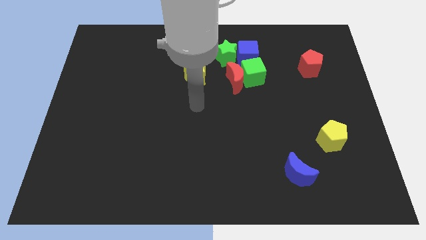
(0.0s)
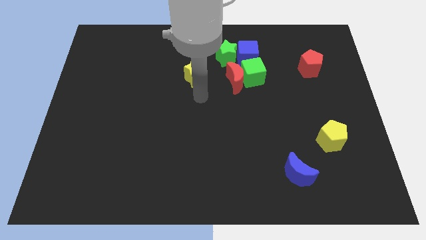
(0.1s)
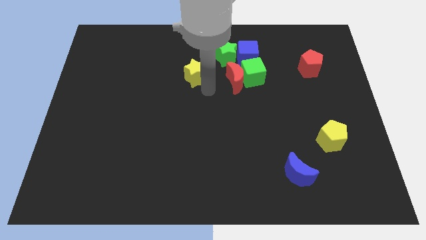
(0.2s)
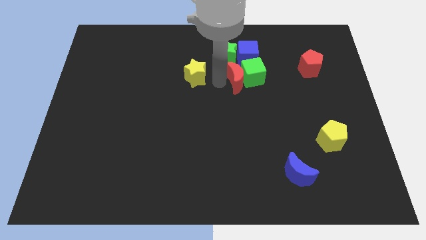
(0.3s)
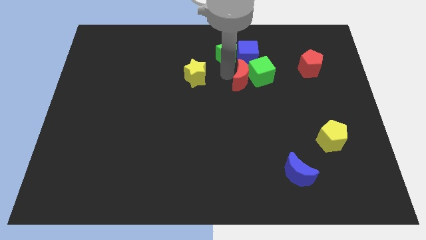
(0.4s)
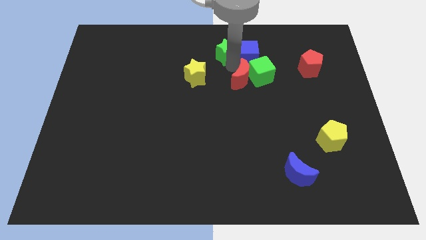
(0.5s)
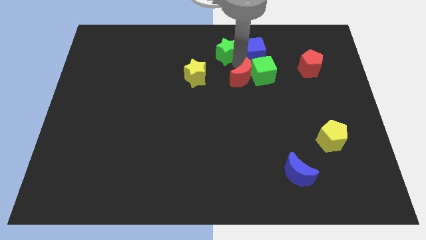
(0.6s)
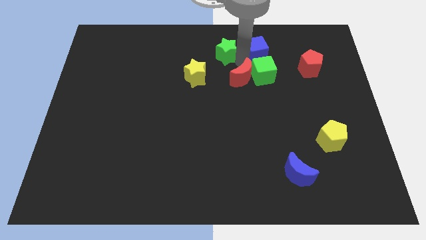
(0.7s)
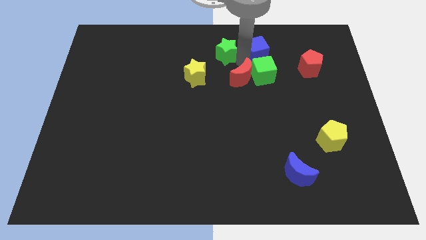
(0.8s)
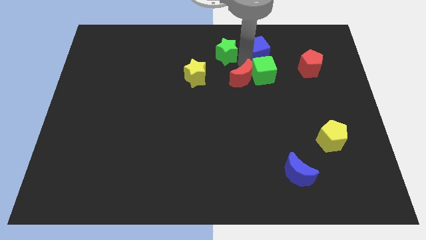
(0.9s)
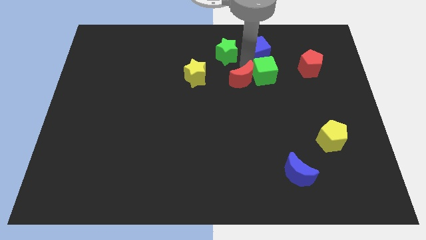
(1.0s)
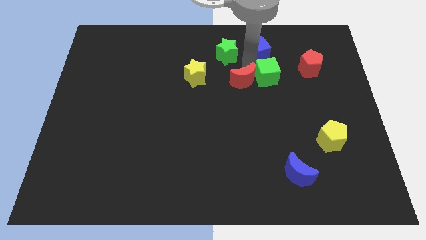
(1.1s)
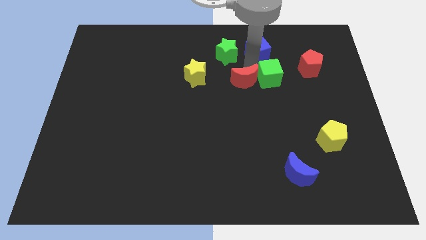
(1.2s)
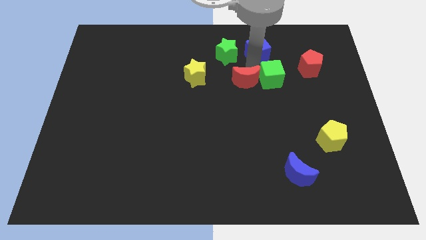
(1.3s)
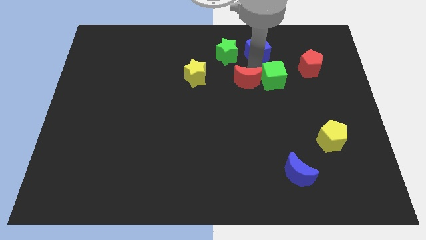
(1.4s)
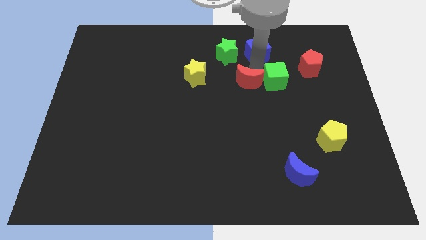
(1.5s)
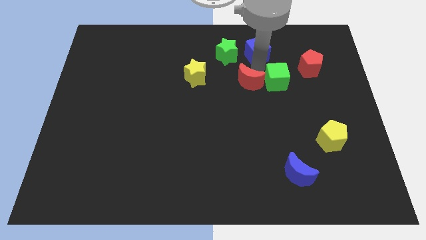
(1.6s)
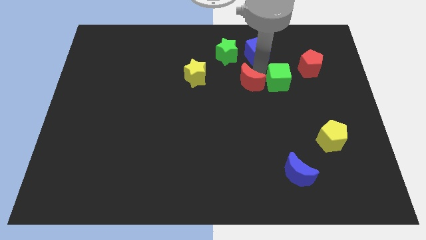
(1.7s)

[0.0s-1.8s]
pull the green cube apart from the group of blocks

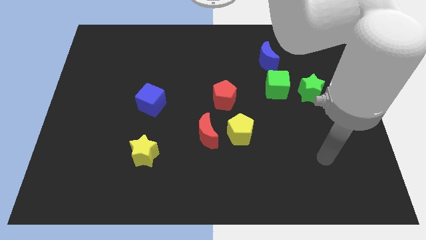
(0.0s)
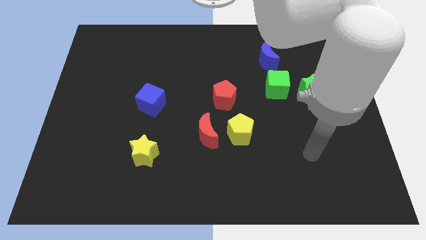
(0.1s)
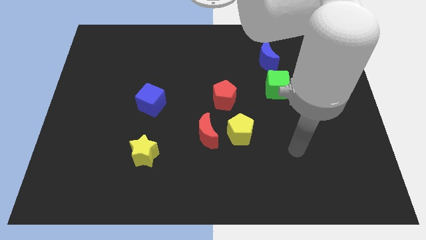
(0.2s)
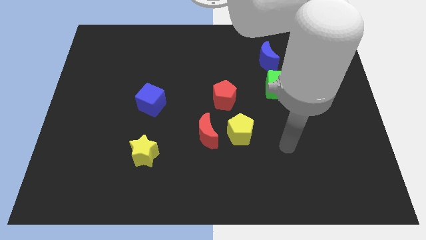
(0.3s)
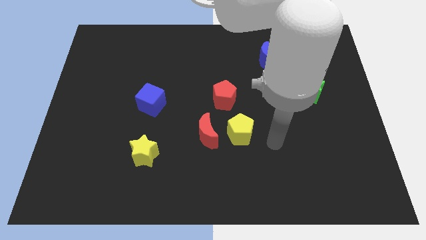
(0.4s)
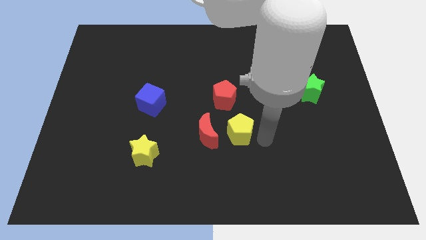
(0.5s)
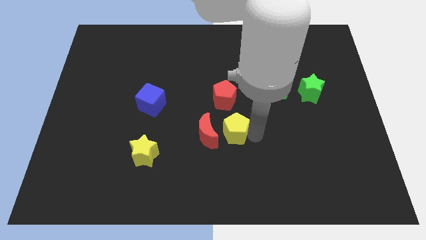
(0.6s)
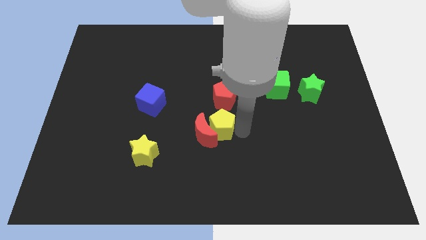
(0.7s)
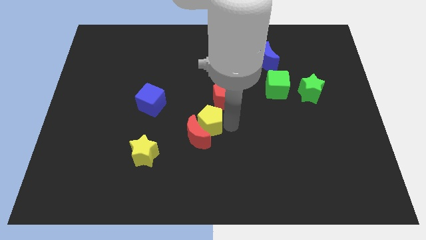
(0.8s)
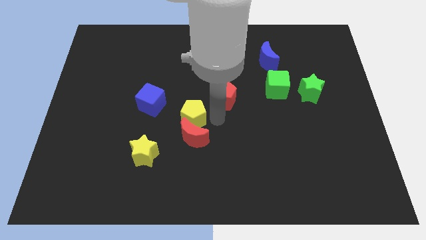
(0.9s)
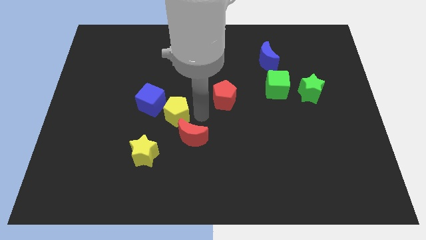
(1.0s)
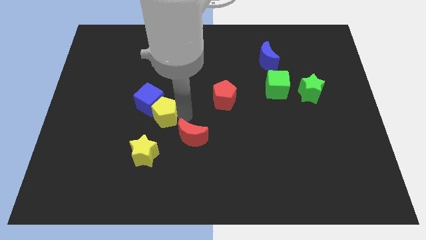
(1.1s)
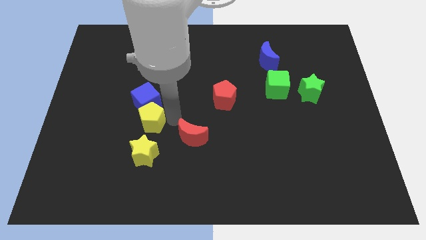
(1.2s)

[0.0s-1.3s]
move the red moon away from the yellow pentagon

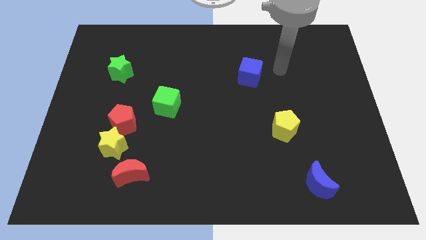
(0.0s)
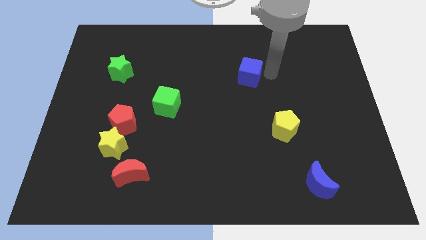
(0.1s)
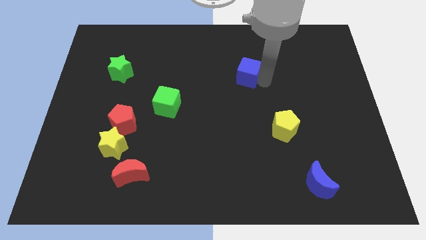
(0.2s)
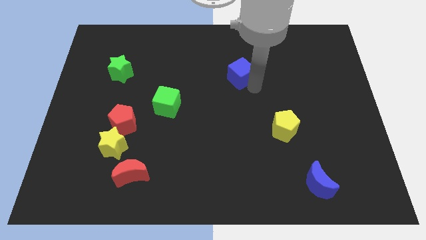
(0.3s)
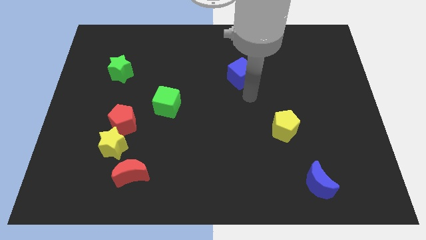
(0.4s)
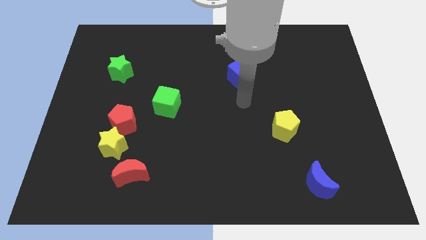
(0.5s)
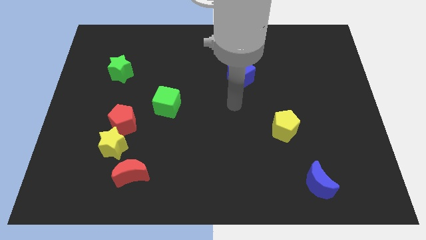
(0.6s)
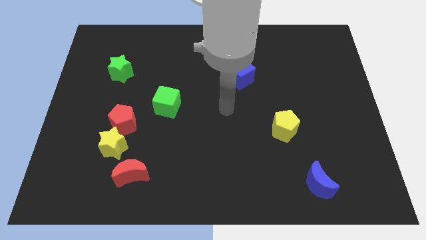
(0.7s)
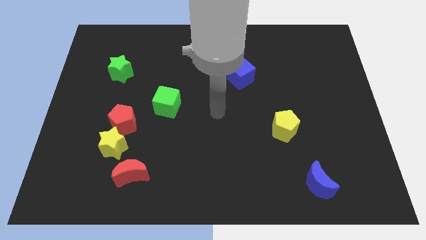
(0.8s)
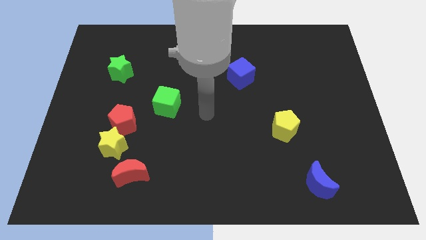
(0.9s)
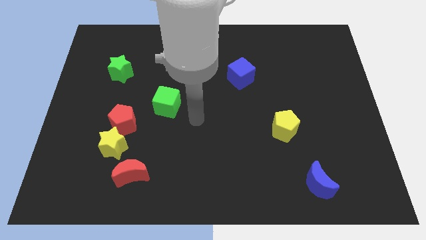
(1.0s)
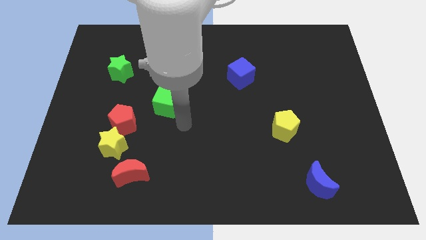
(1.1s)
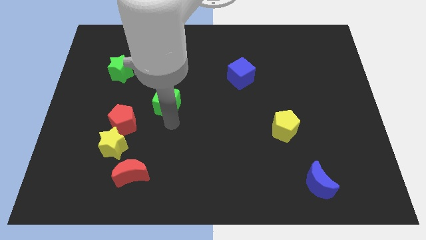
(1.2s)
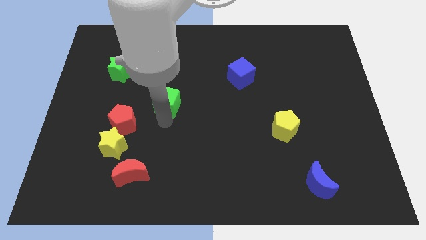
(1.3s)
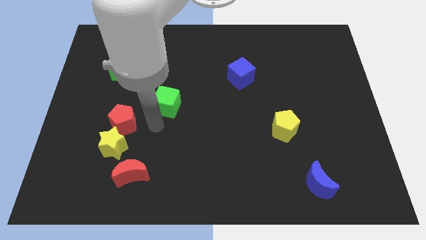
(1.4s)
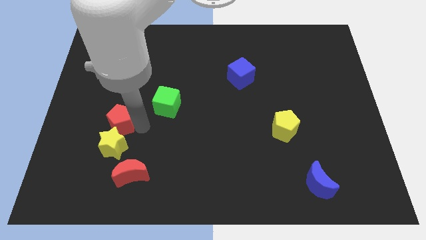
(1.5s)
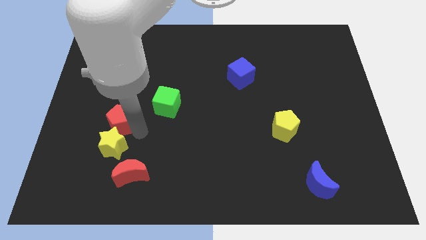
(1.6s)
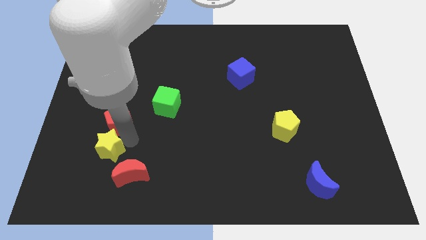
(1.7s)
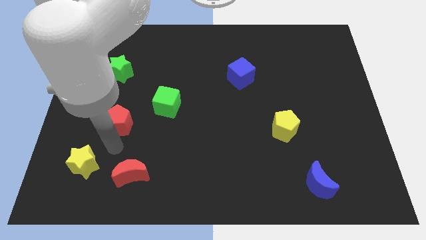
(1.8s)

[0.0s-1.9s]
move the red pentagon away from the yellow star

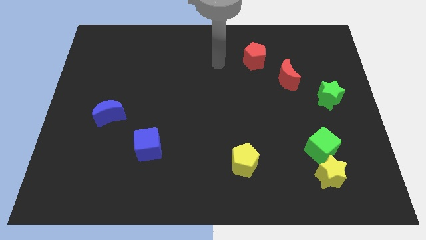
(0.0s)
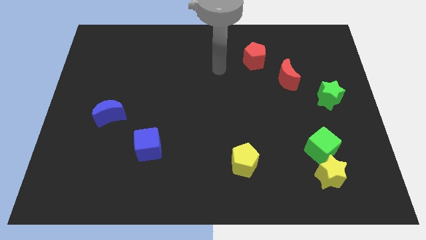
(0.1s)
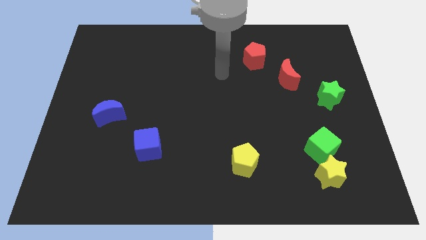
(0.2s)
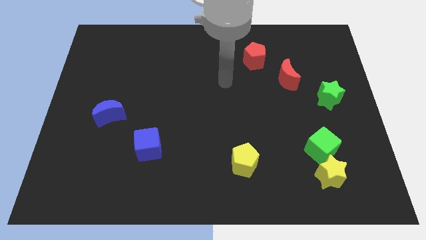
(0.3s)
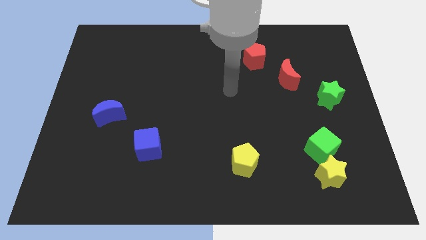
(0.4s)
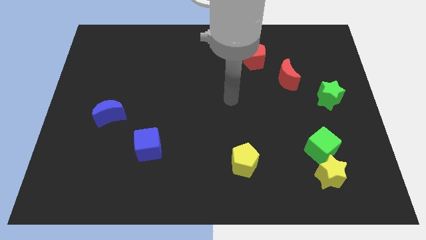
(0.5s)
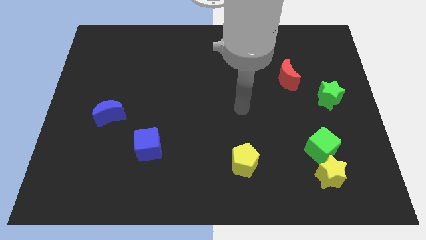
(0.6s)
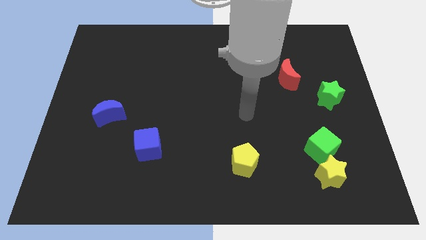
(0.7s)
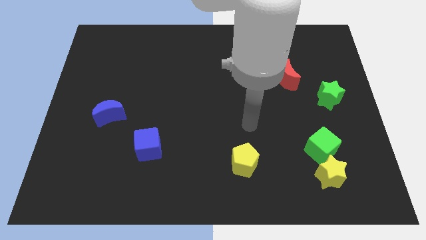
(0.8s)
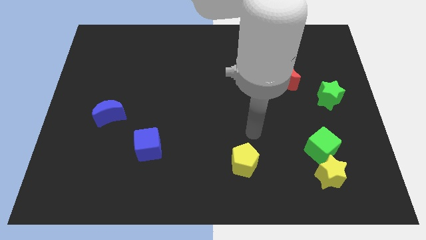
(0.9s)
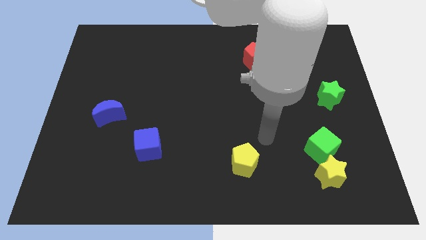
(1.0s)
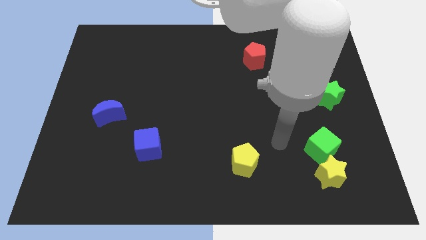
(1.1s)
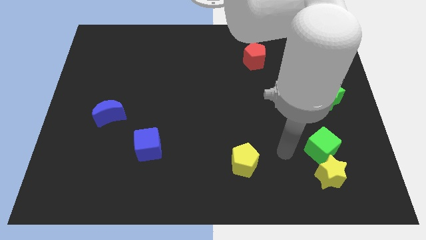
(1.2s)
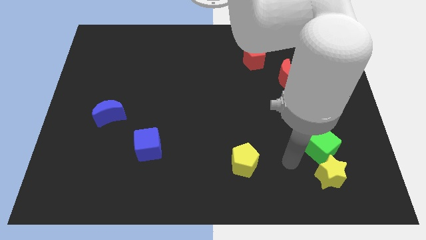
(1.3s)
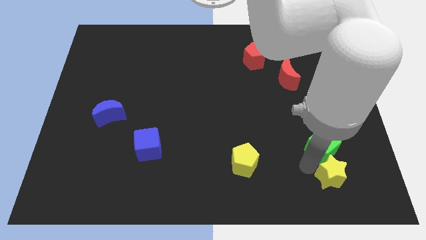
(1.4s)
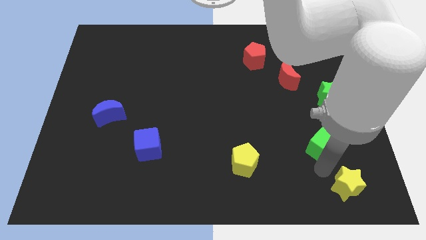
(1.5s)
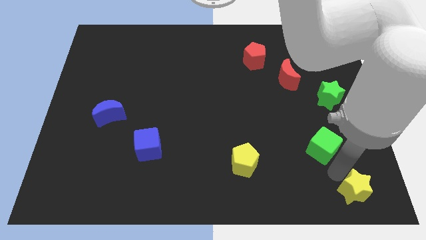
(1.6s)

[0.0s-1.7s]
separate the green cube from the yellow star

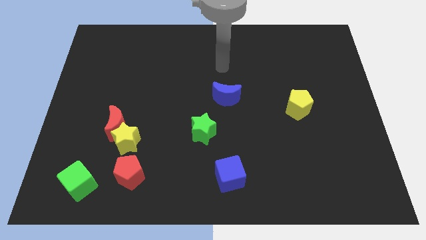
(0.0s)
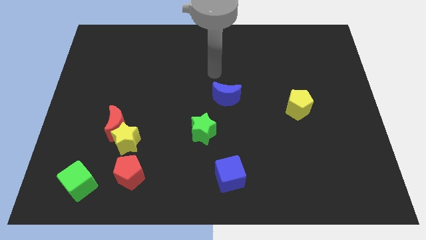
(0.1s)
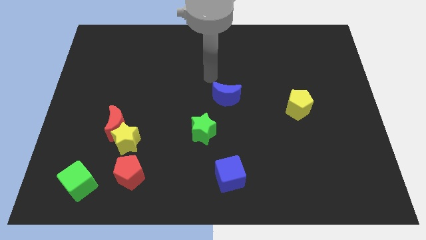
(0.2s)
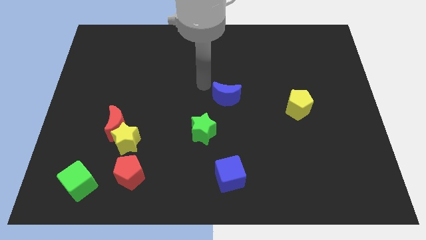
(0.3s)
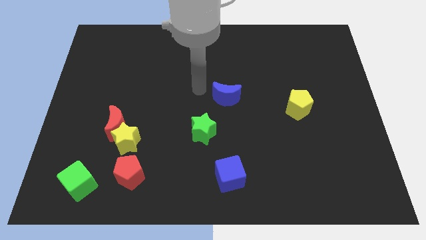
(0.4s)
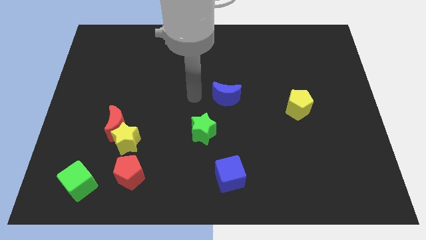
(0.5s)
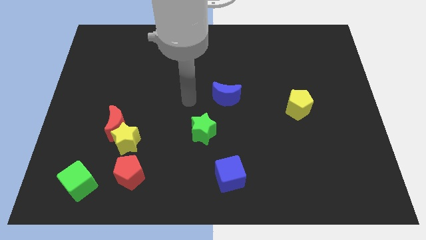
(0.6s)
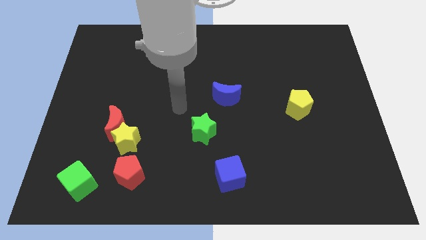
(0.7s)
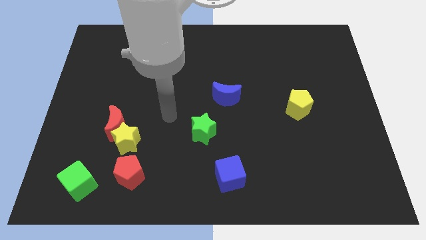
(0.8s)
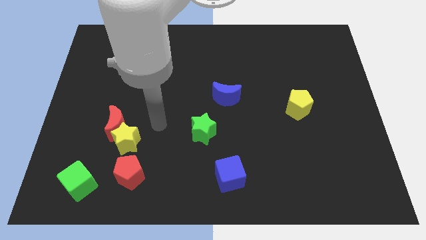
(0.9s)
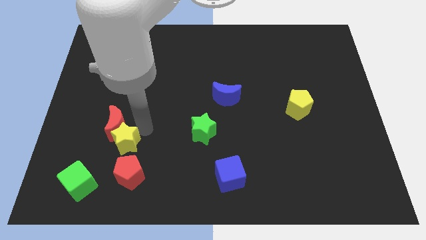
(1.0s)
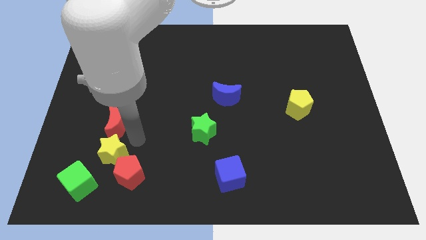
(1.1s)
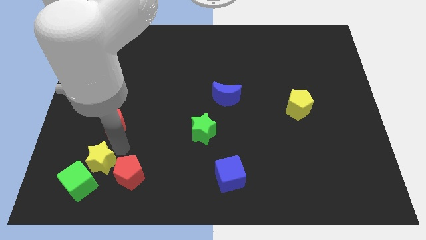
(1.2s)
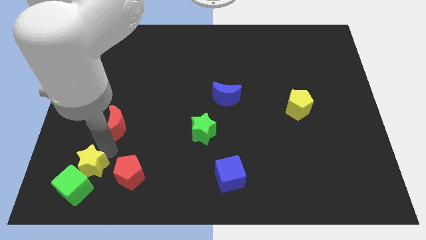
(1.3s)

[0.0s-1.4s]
separate the red moon from the yellow star

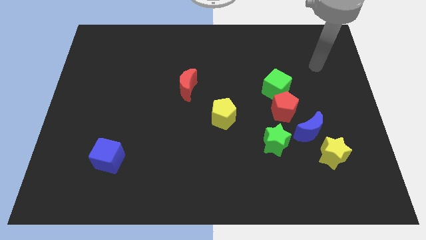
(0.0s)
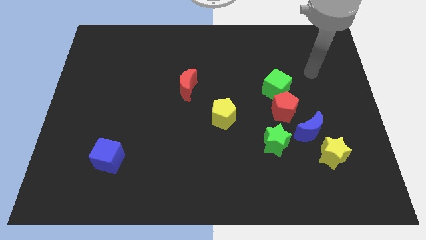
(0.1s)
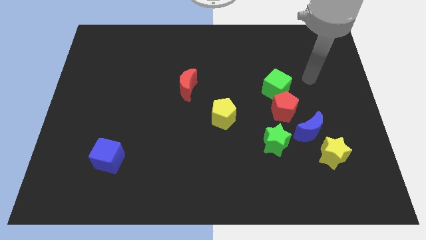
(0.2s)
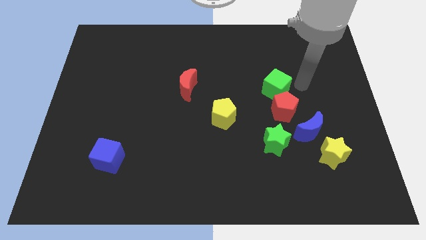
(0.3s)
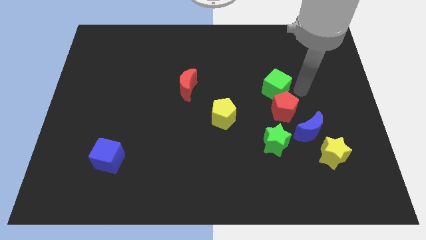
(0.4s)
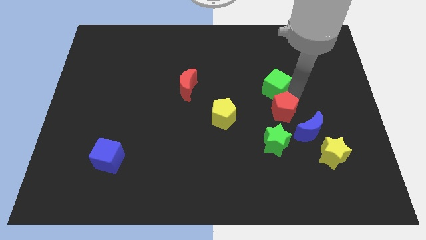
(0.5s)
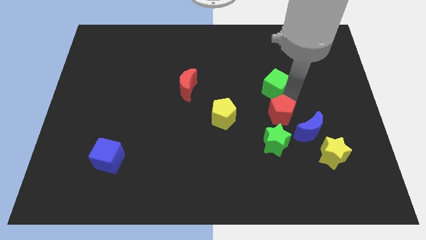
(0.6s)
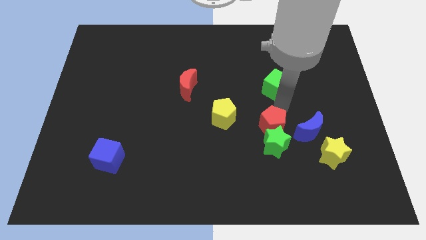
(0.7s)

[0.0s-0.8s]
move the green cube away from the red pentagon
